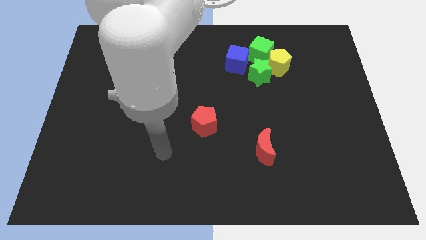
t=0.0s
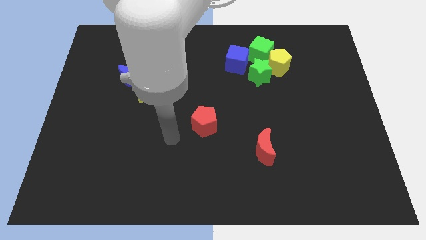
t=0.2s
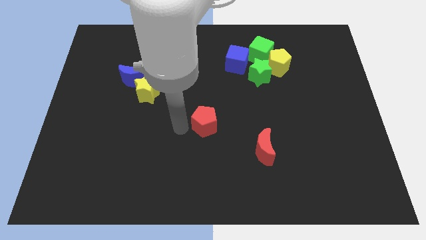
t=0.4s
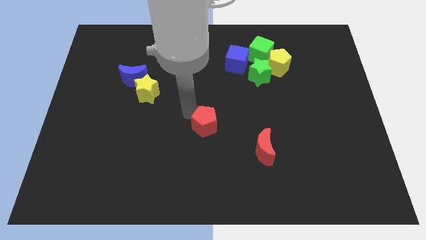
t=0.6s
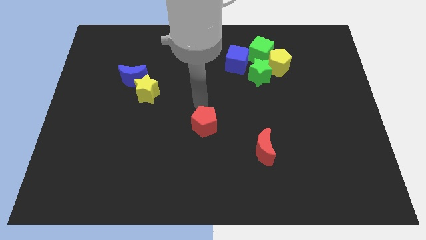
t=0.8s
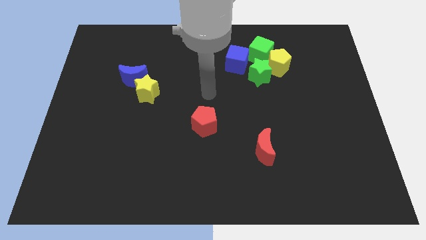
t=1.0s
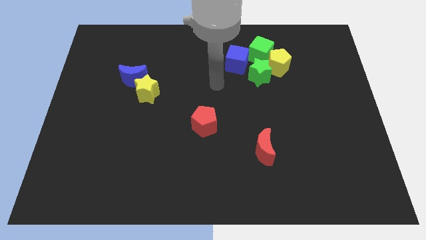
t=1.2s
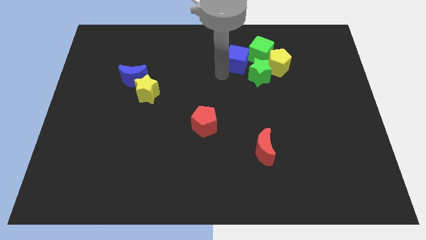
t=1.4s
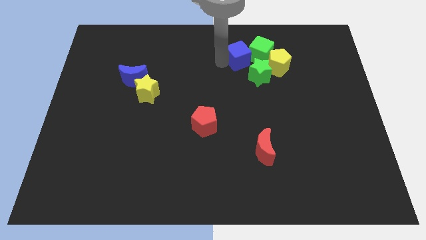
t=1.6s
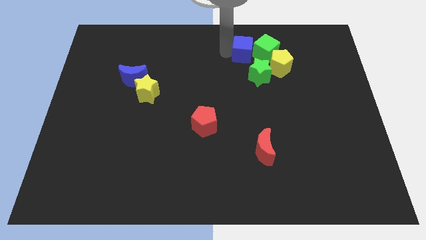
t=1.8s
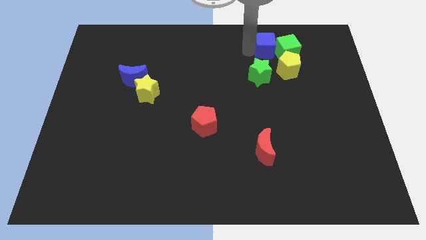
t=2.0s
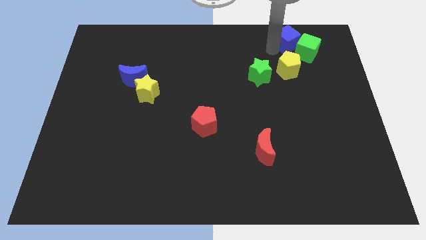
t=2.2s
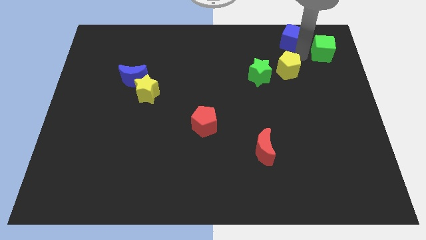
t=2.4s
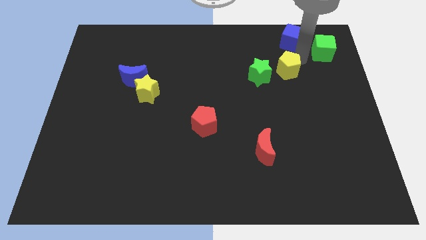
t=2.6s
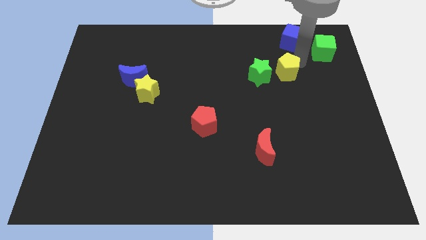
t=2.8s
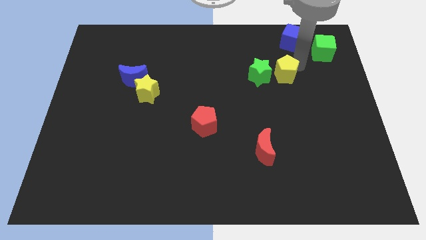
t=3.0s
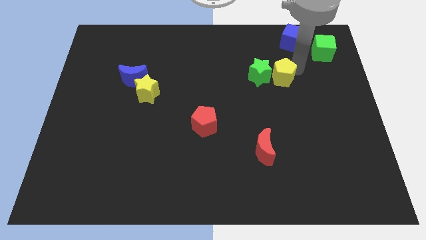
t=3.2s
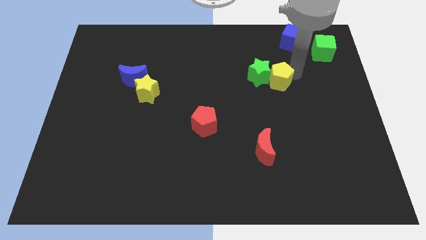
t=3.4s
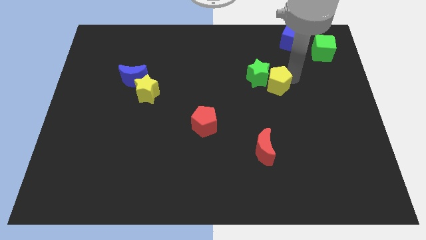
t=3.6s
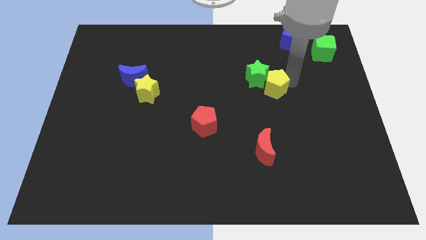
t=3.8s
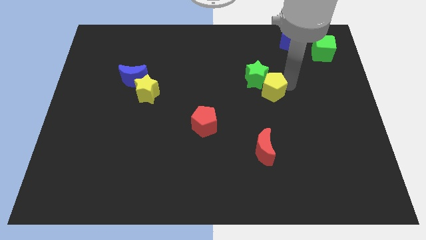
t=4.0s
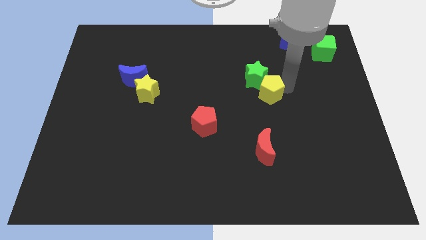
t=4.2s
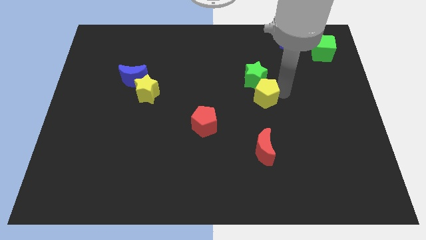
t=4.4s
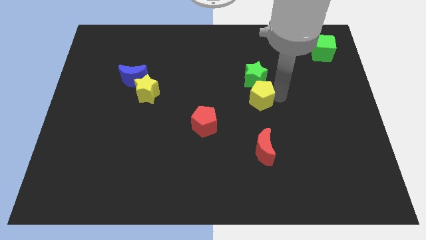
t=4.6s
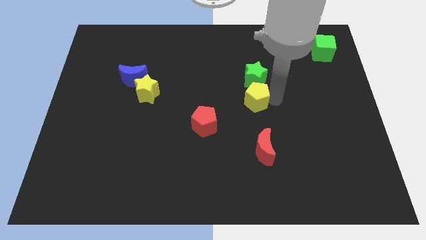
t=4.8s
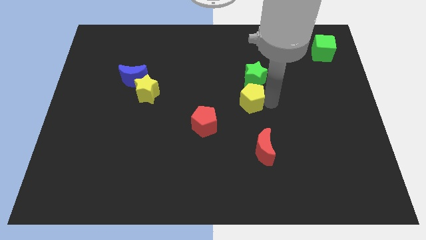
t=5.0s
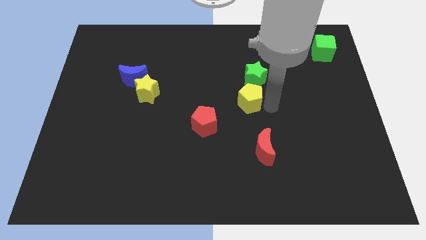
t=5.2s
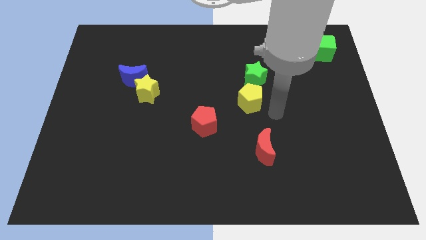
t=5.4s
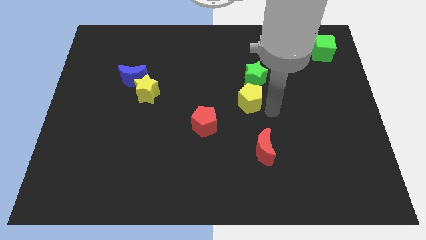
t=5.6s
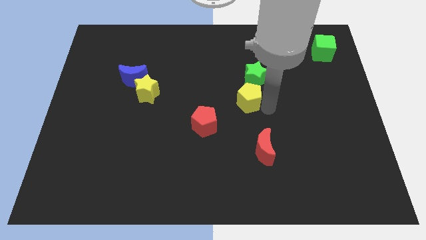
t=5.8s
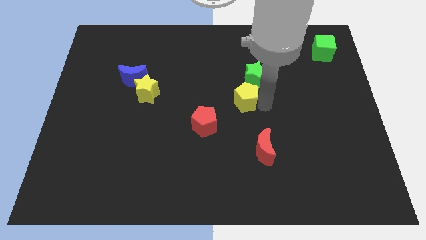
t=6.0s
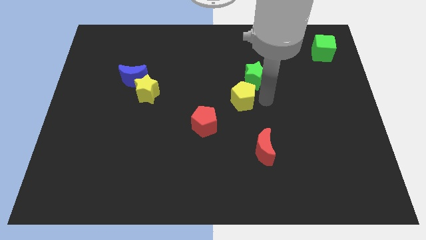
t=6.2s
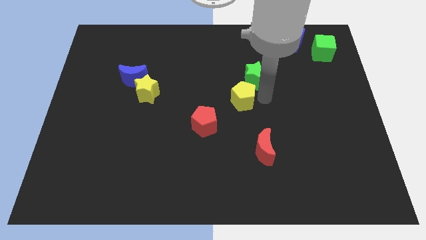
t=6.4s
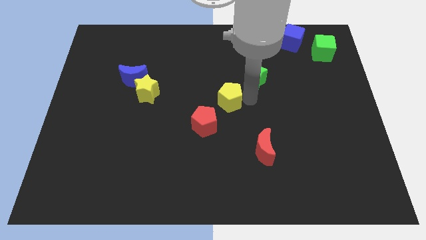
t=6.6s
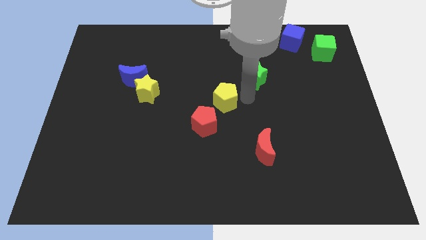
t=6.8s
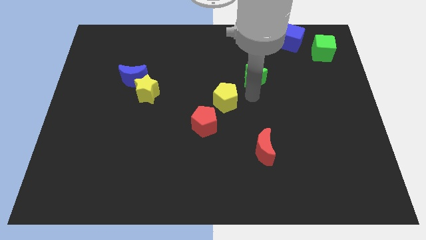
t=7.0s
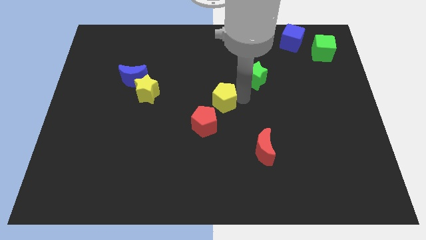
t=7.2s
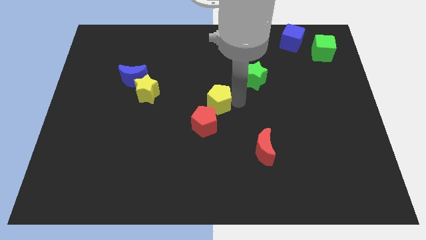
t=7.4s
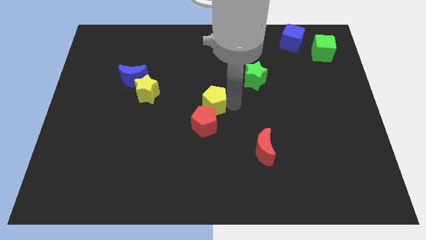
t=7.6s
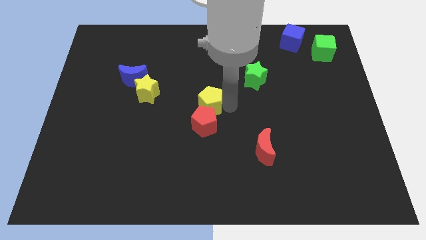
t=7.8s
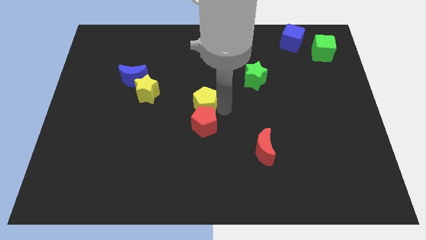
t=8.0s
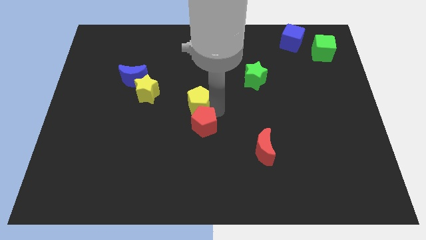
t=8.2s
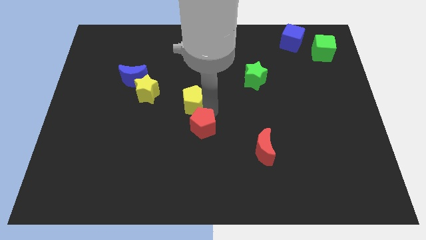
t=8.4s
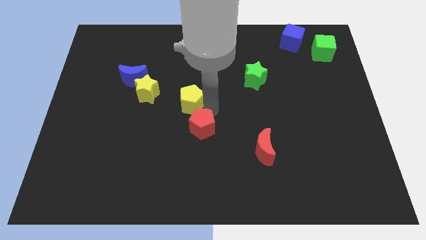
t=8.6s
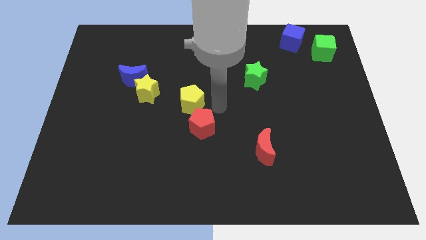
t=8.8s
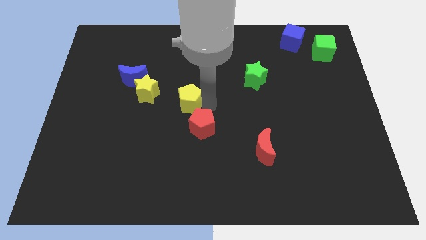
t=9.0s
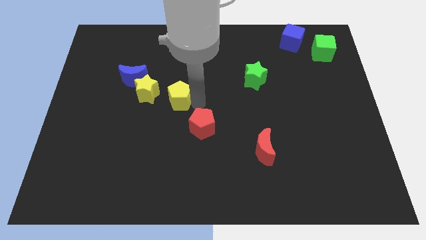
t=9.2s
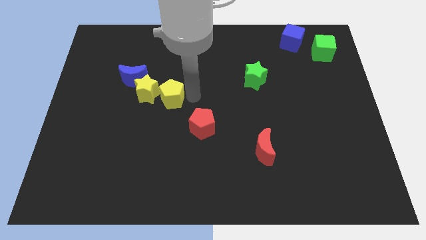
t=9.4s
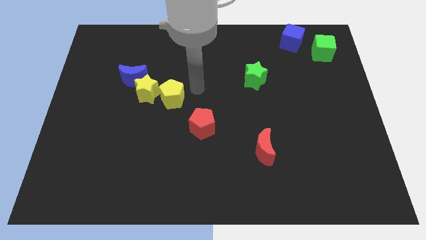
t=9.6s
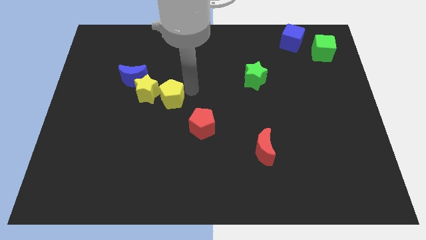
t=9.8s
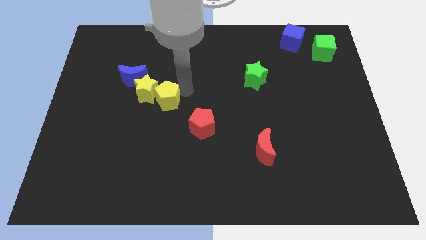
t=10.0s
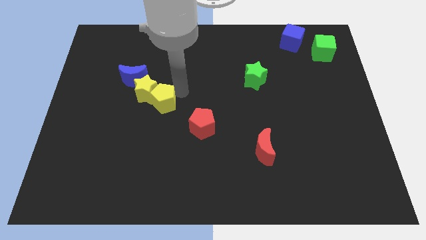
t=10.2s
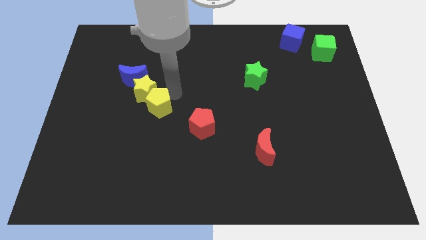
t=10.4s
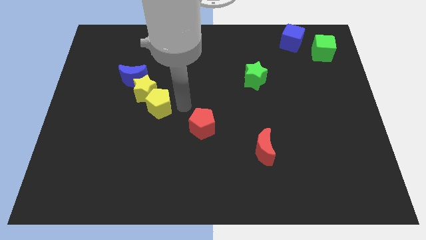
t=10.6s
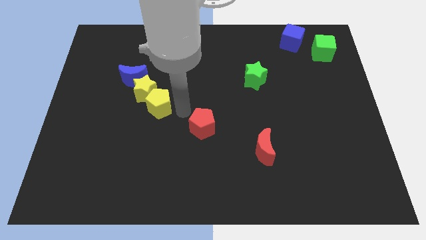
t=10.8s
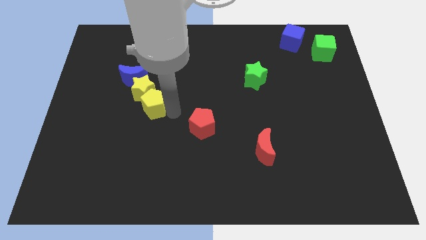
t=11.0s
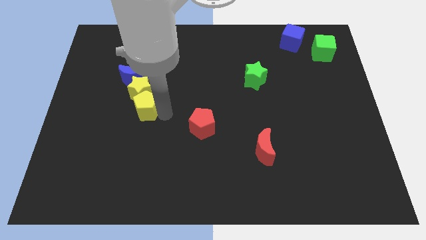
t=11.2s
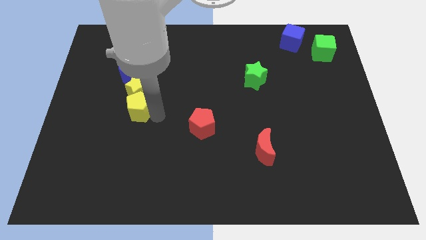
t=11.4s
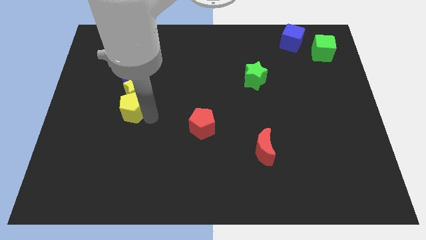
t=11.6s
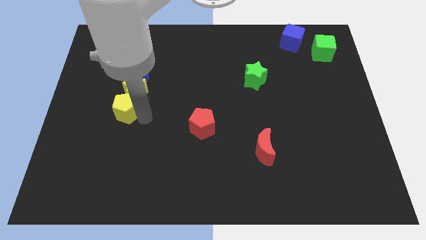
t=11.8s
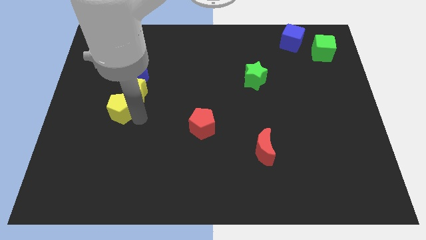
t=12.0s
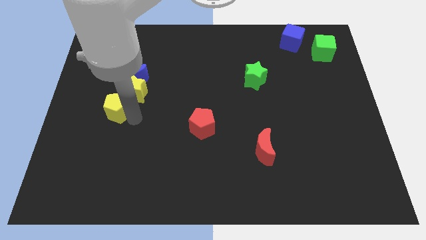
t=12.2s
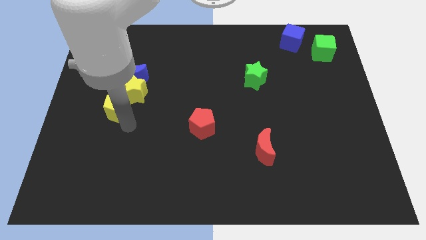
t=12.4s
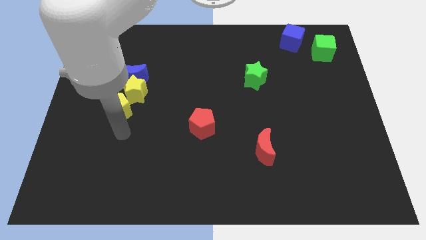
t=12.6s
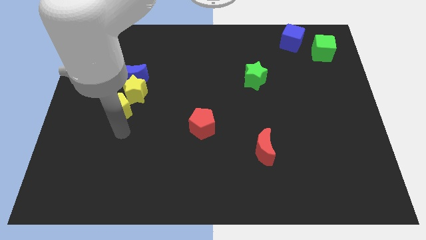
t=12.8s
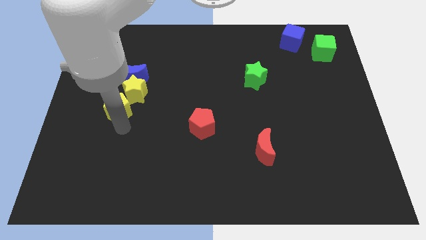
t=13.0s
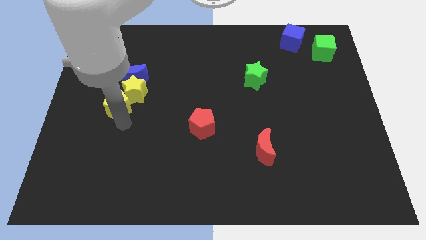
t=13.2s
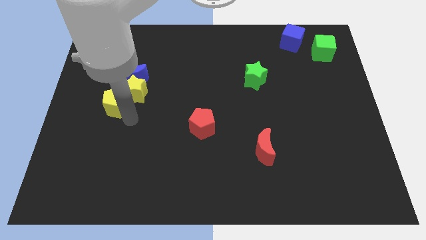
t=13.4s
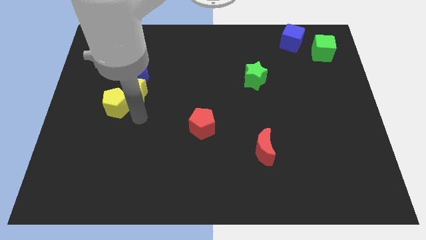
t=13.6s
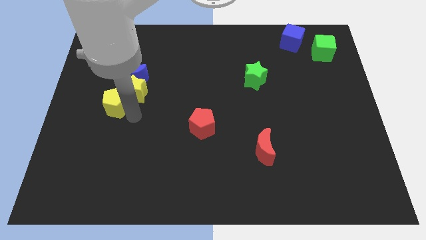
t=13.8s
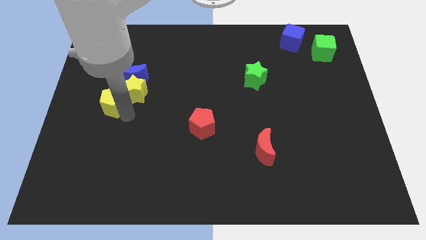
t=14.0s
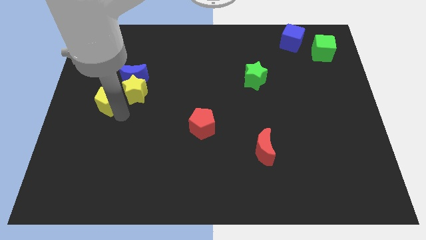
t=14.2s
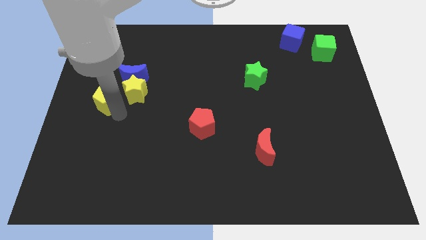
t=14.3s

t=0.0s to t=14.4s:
move the yellow pentagon to the left side of the board
